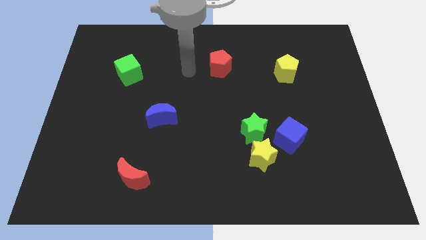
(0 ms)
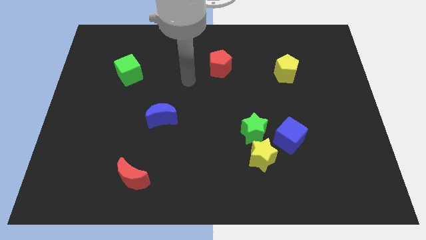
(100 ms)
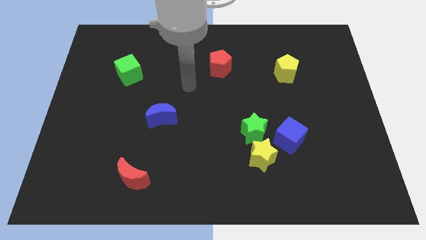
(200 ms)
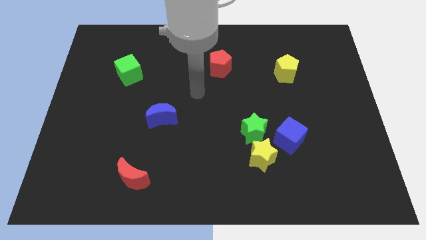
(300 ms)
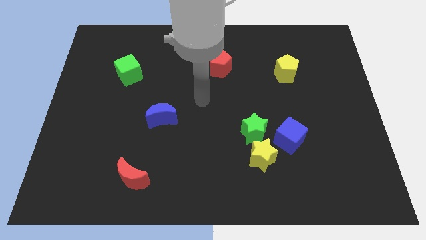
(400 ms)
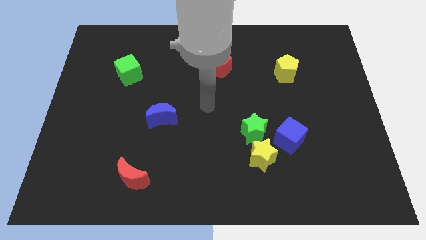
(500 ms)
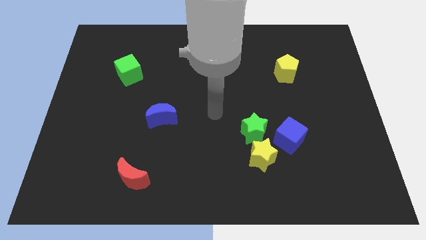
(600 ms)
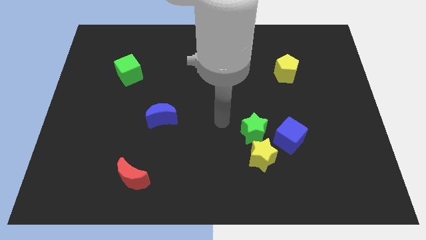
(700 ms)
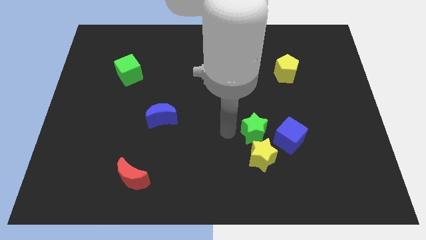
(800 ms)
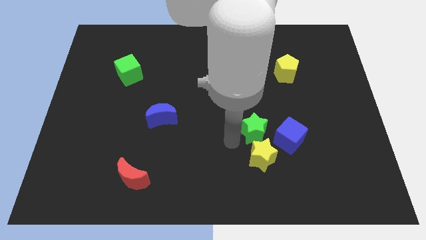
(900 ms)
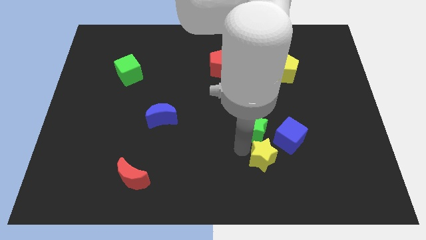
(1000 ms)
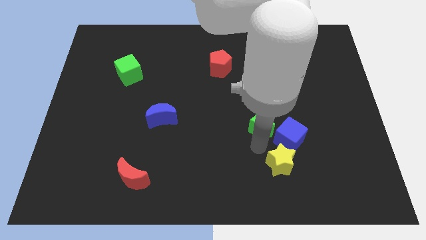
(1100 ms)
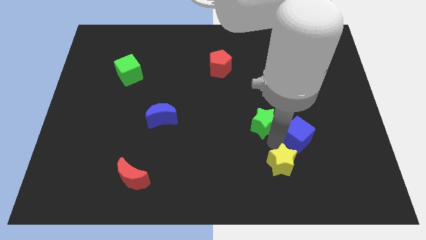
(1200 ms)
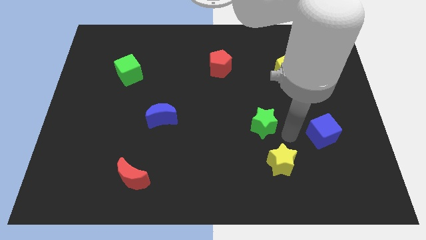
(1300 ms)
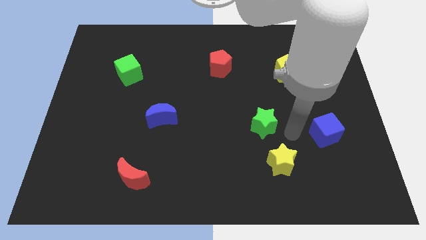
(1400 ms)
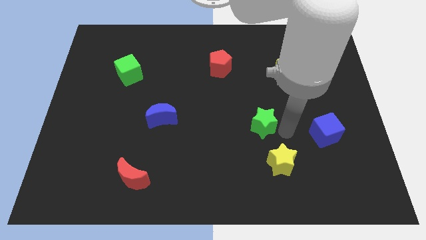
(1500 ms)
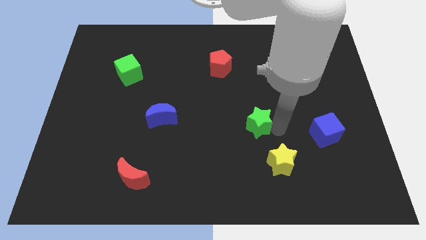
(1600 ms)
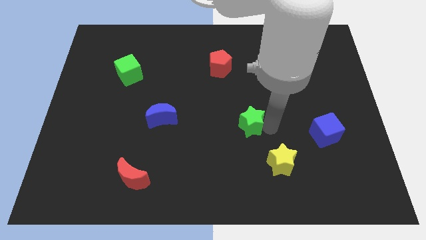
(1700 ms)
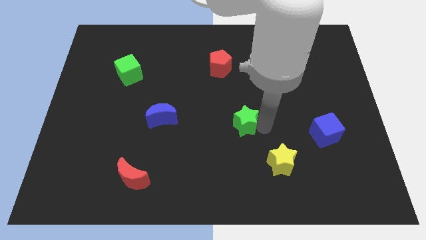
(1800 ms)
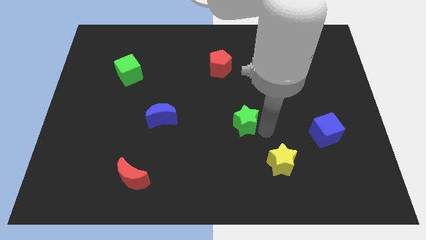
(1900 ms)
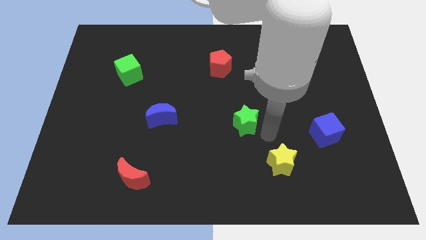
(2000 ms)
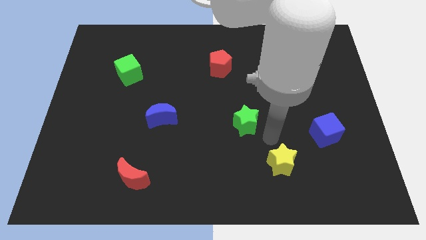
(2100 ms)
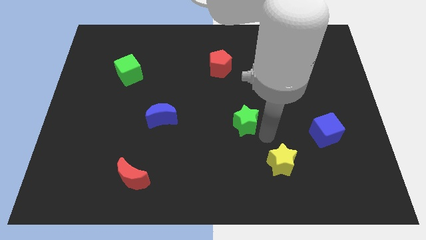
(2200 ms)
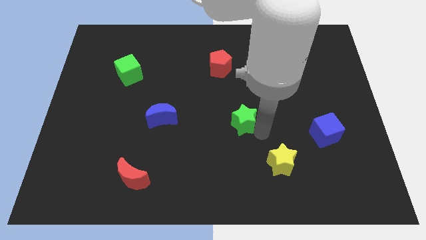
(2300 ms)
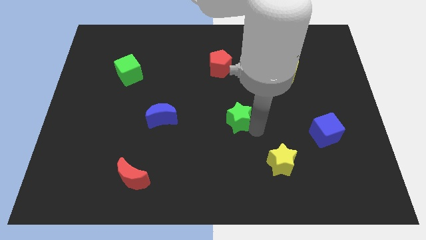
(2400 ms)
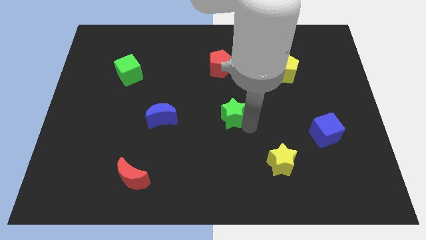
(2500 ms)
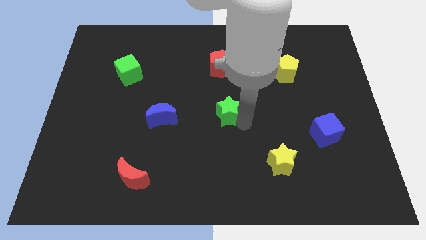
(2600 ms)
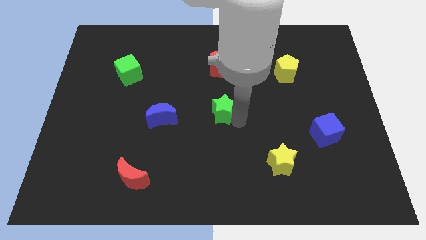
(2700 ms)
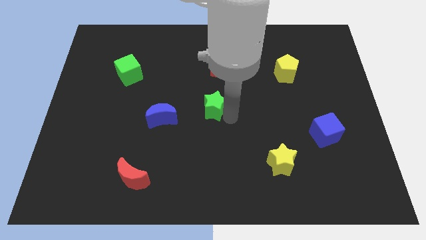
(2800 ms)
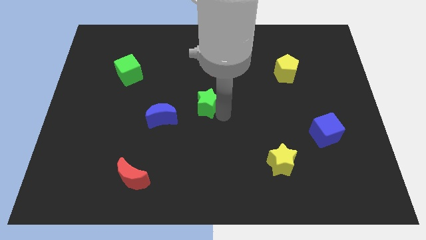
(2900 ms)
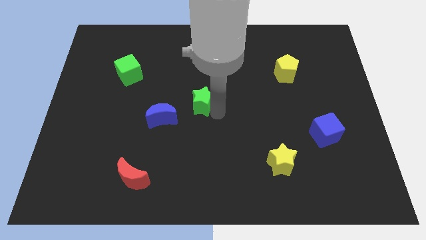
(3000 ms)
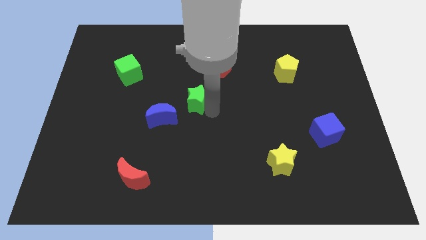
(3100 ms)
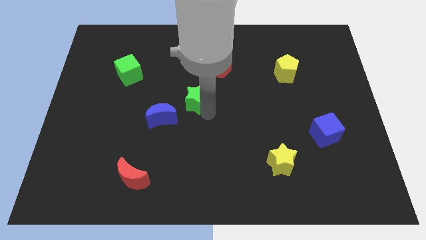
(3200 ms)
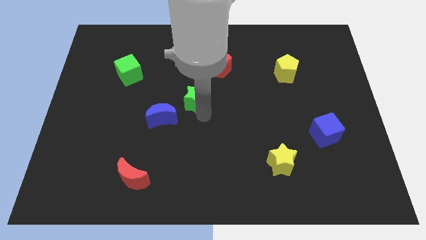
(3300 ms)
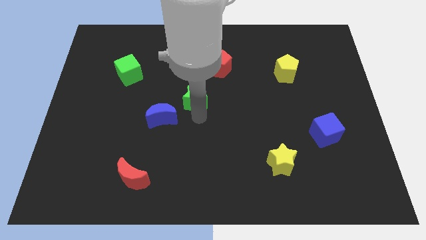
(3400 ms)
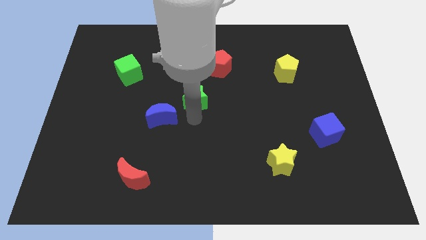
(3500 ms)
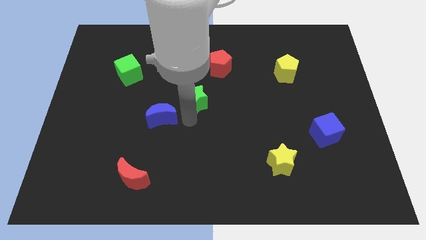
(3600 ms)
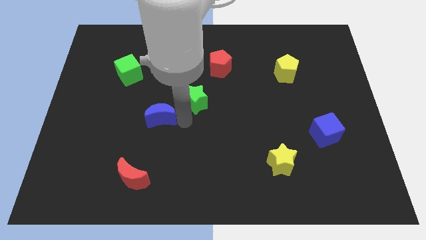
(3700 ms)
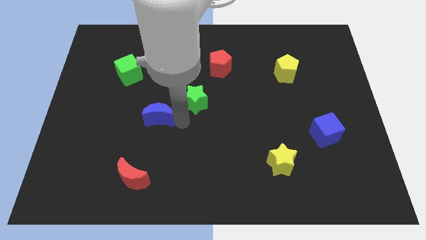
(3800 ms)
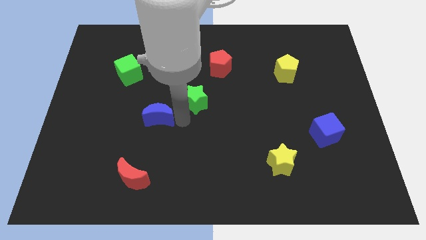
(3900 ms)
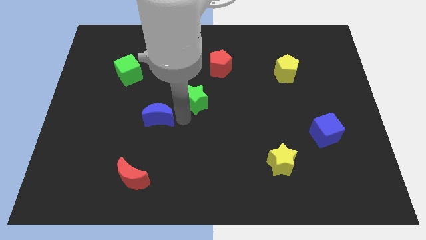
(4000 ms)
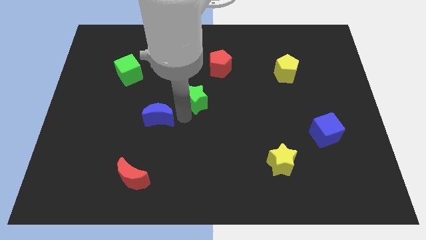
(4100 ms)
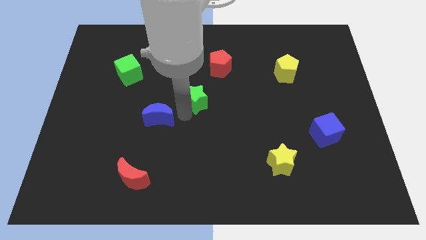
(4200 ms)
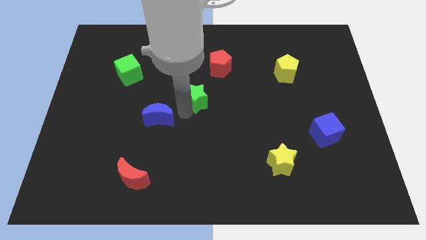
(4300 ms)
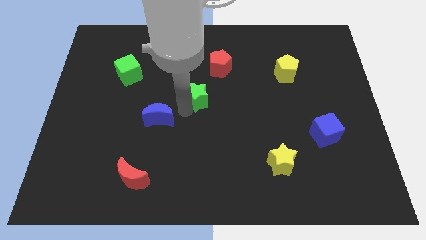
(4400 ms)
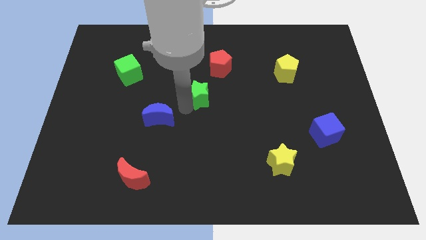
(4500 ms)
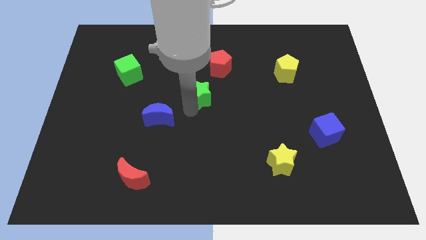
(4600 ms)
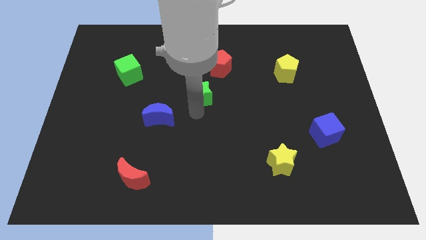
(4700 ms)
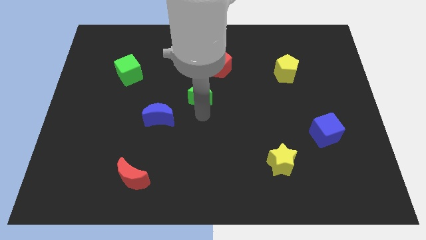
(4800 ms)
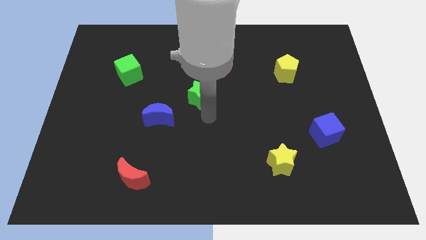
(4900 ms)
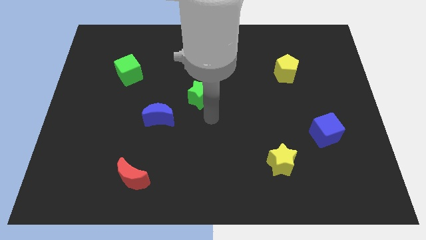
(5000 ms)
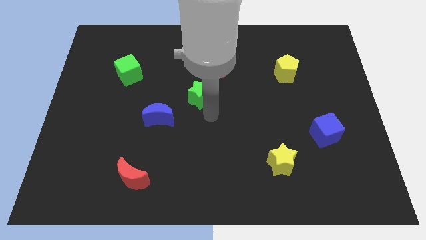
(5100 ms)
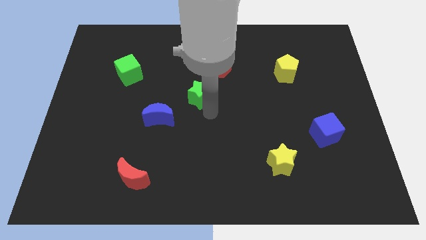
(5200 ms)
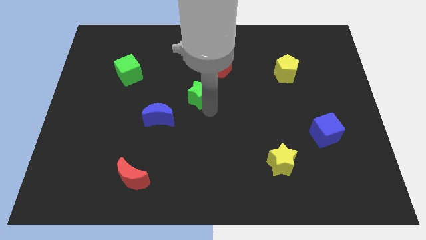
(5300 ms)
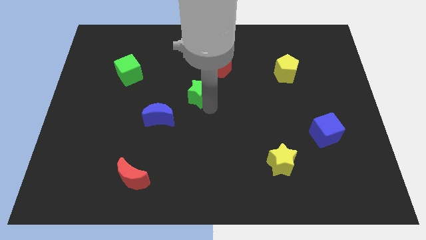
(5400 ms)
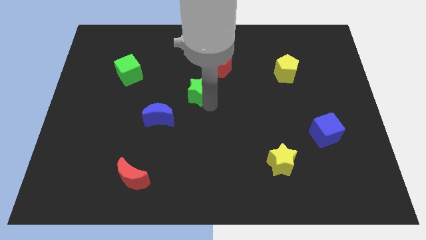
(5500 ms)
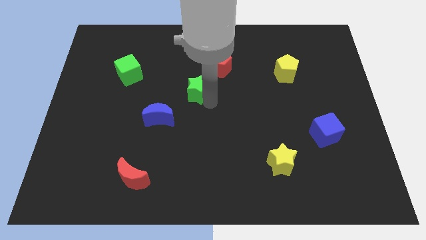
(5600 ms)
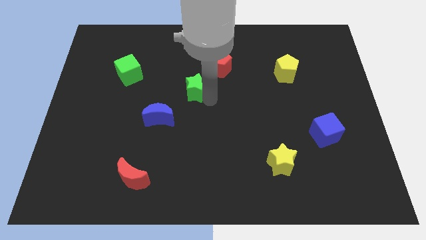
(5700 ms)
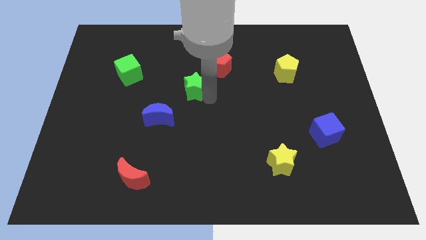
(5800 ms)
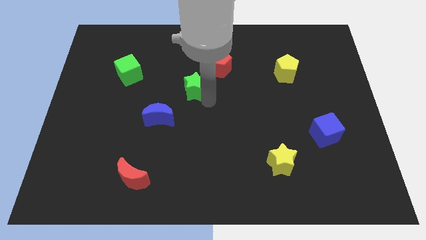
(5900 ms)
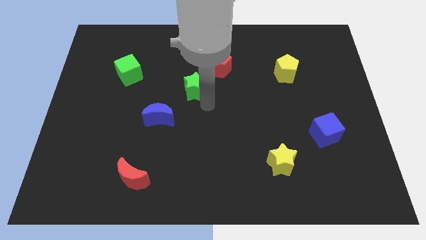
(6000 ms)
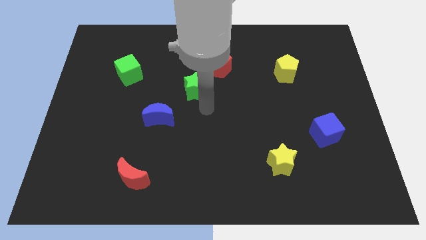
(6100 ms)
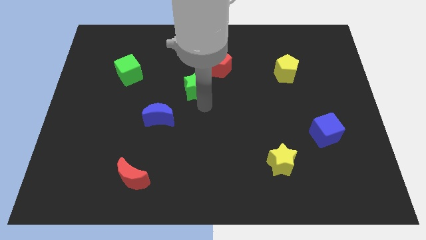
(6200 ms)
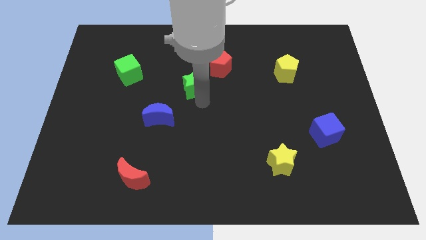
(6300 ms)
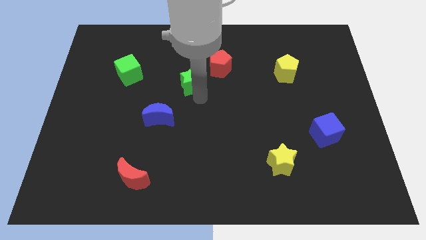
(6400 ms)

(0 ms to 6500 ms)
slide the green star upwards and left diagonally

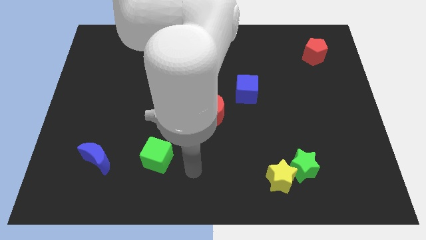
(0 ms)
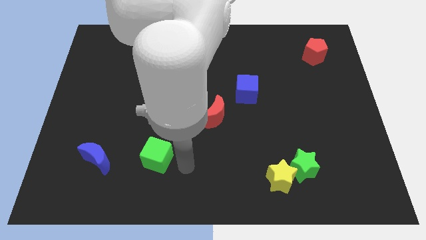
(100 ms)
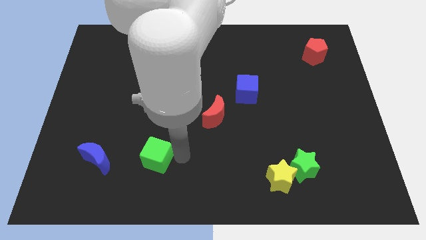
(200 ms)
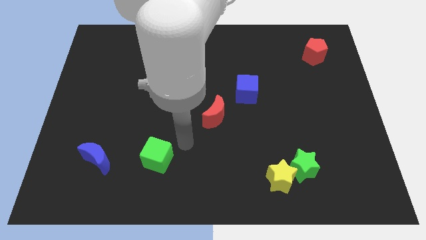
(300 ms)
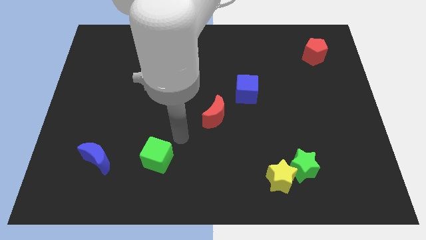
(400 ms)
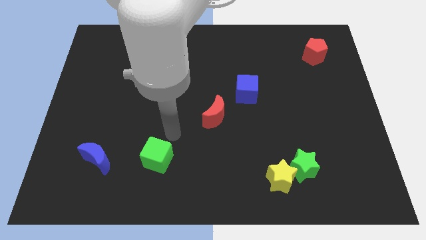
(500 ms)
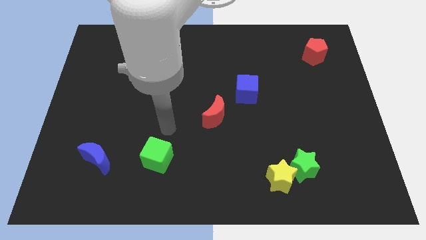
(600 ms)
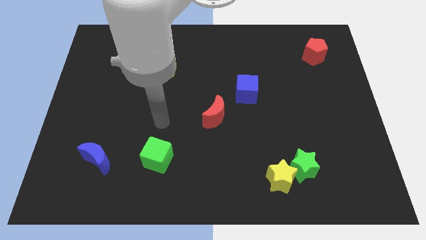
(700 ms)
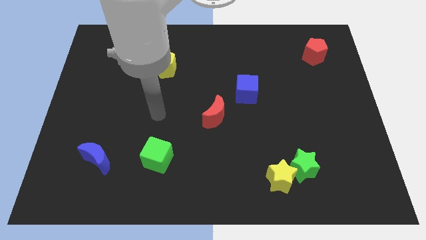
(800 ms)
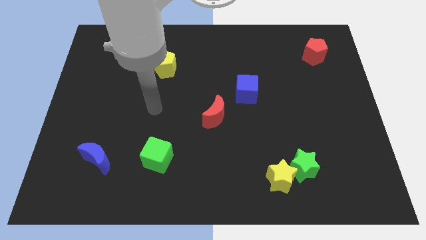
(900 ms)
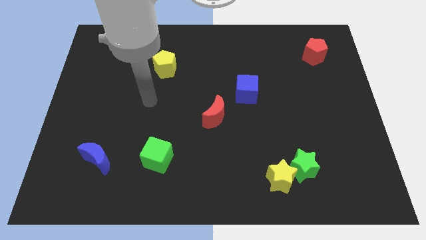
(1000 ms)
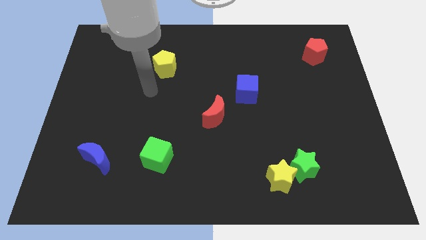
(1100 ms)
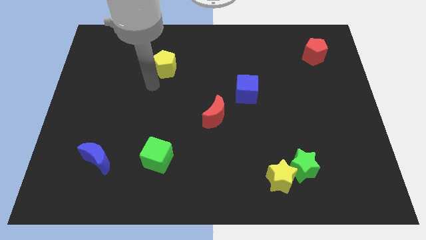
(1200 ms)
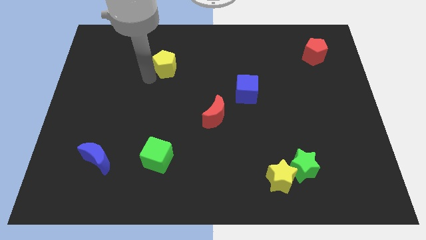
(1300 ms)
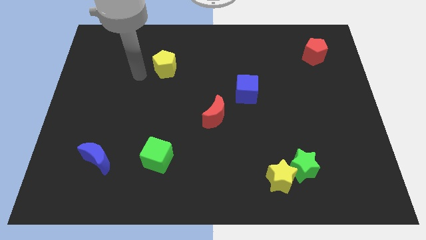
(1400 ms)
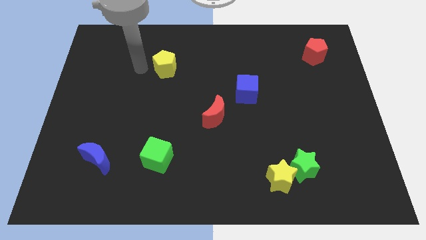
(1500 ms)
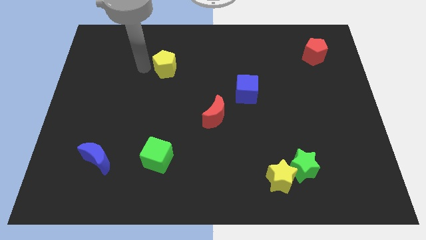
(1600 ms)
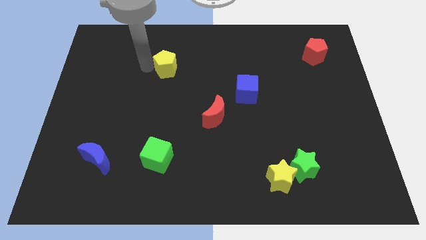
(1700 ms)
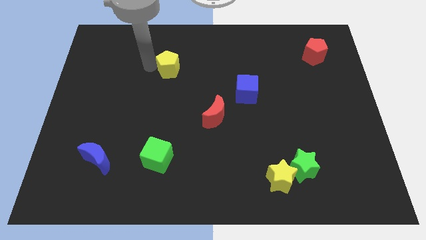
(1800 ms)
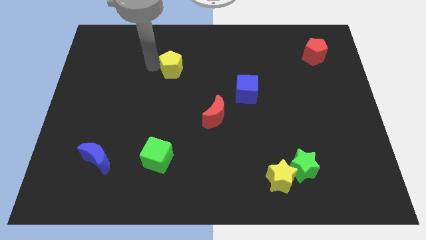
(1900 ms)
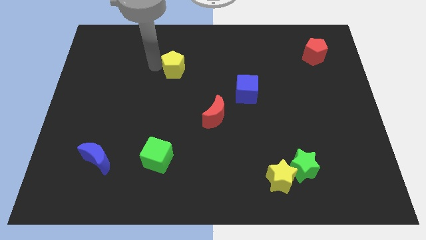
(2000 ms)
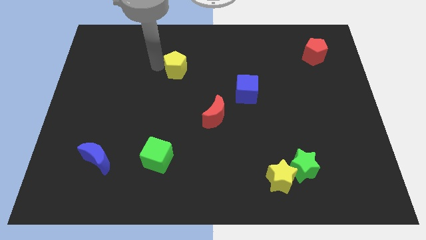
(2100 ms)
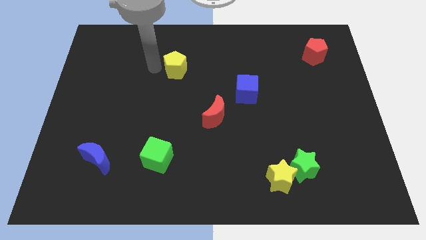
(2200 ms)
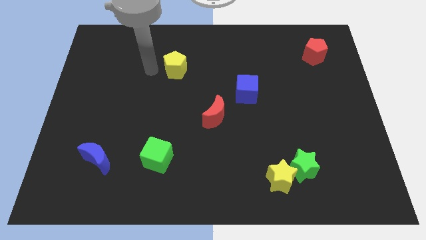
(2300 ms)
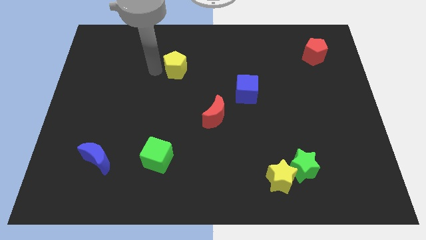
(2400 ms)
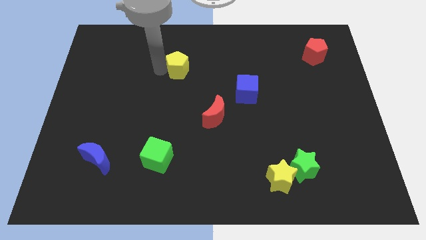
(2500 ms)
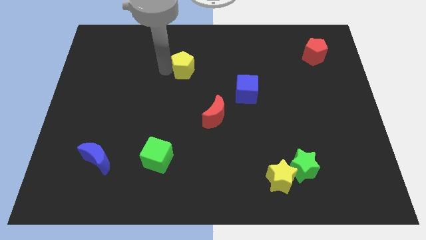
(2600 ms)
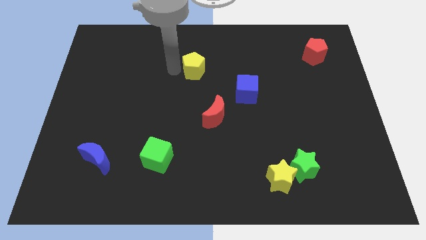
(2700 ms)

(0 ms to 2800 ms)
push the yellow pentagon right slightly
